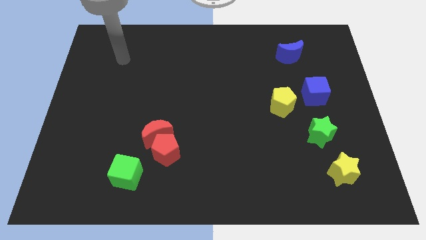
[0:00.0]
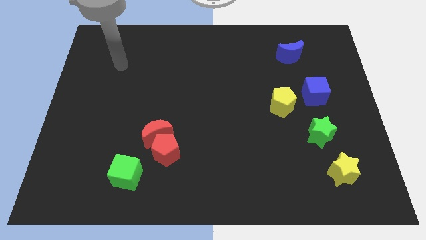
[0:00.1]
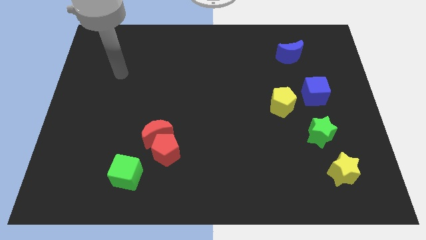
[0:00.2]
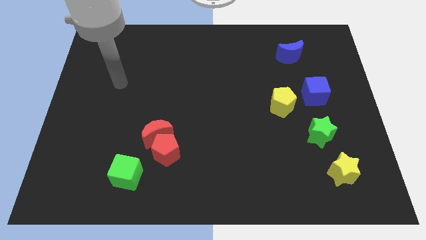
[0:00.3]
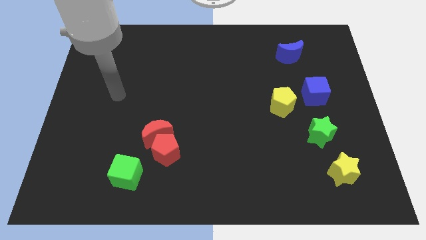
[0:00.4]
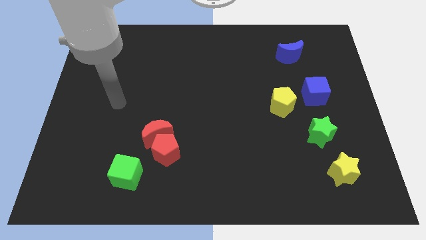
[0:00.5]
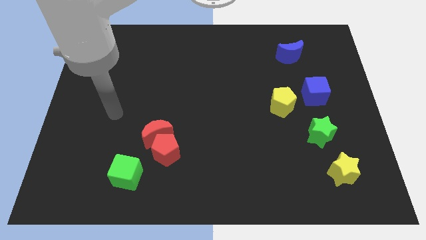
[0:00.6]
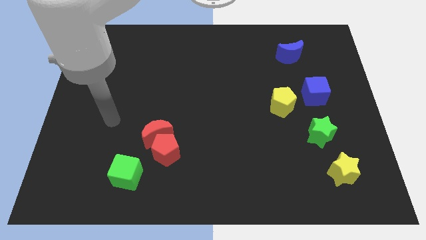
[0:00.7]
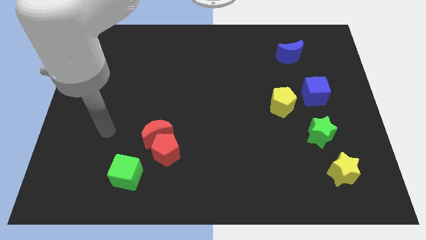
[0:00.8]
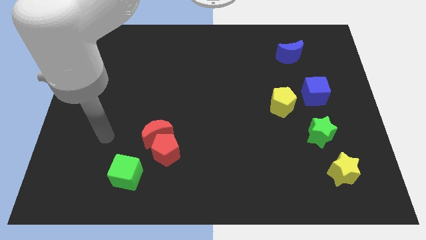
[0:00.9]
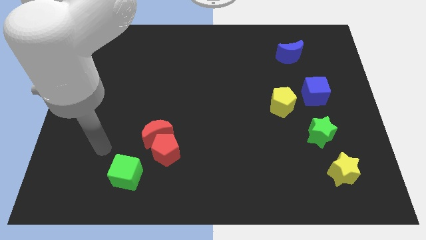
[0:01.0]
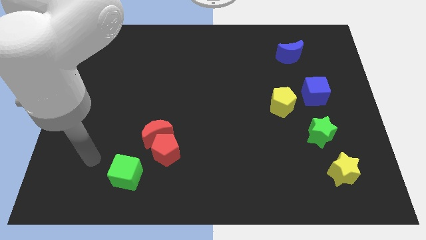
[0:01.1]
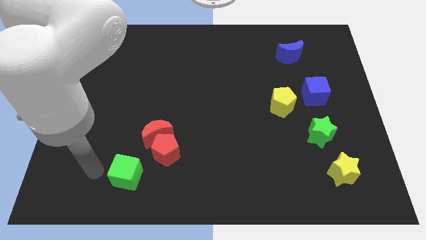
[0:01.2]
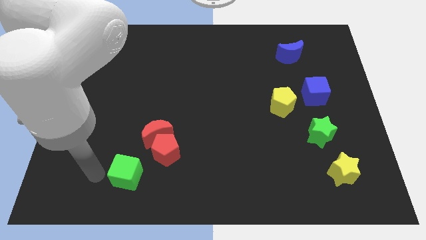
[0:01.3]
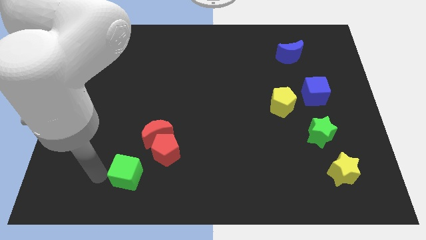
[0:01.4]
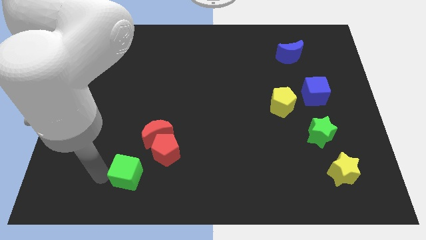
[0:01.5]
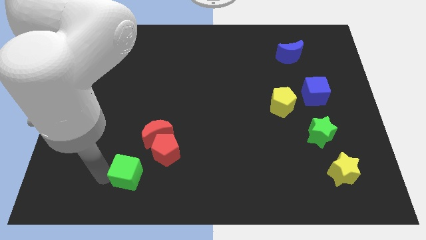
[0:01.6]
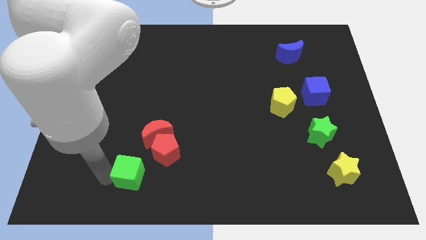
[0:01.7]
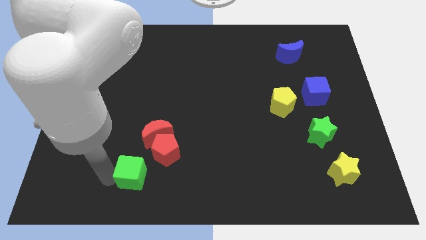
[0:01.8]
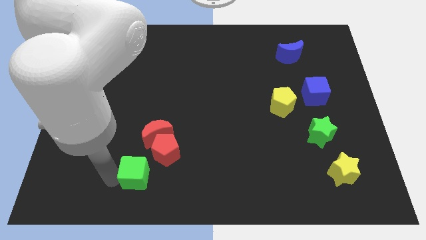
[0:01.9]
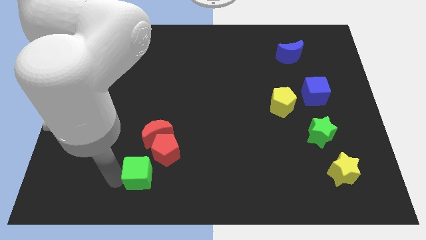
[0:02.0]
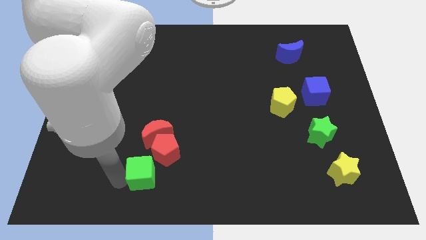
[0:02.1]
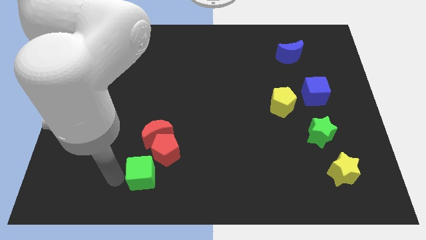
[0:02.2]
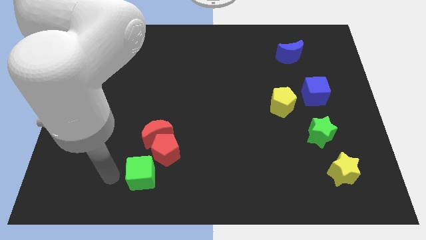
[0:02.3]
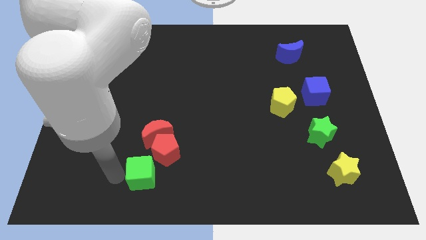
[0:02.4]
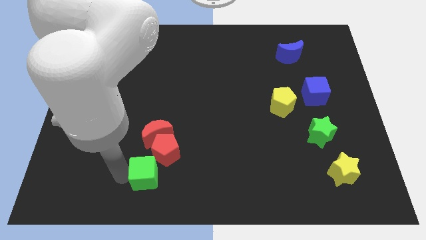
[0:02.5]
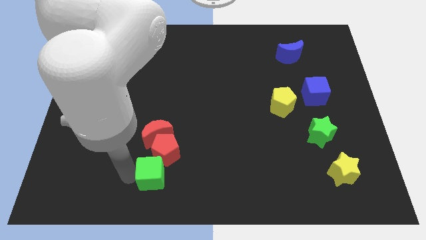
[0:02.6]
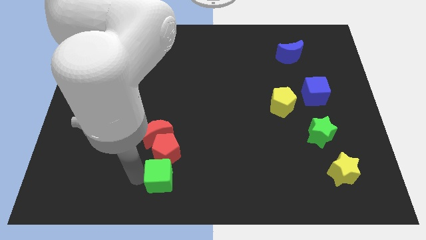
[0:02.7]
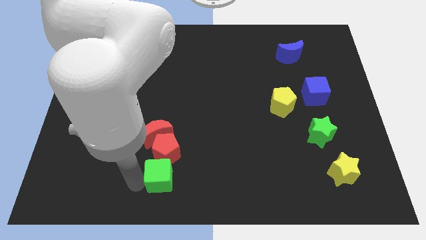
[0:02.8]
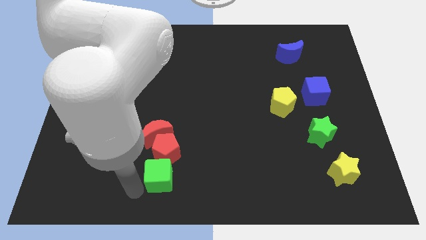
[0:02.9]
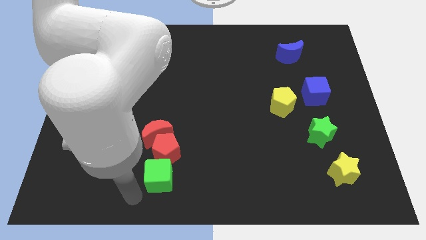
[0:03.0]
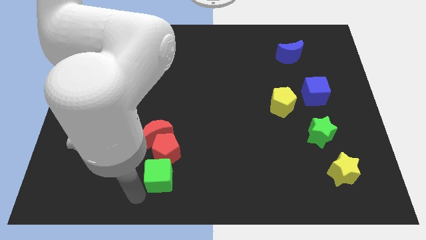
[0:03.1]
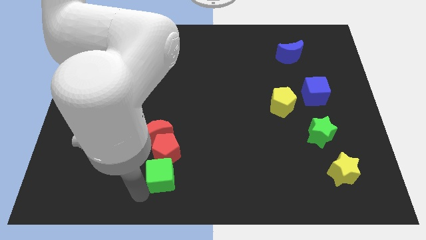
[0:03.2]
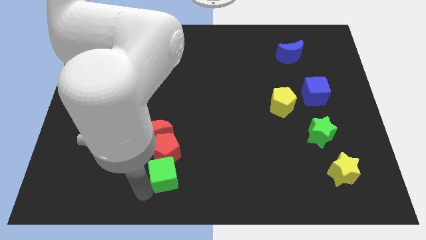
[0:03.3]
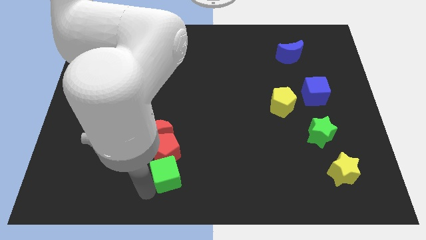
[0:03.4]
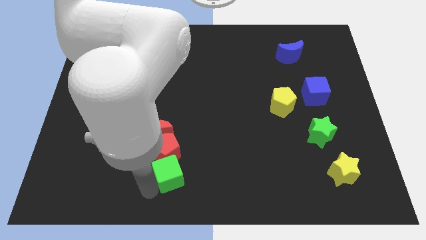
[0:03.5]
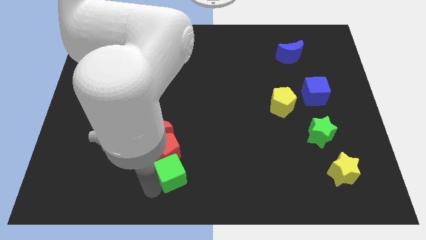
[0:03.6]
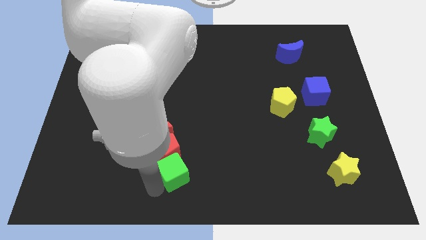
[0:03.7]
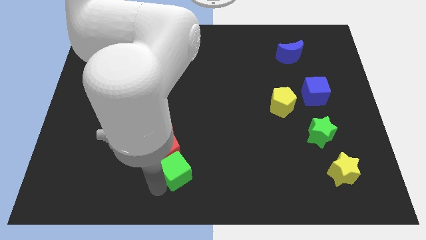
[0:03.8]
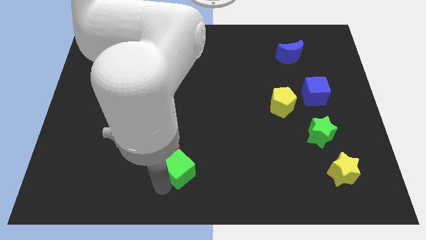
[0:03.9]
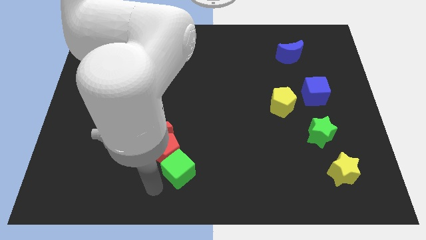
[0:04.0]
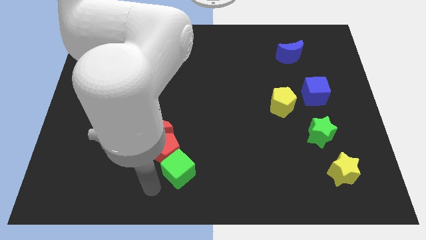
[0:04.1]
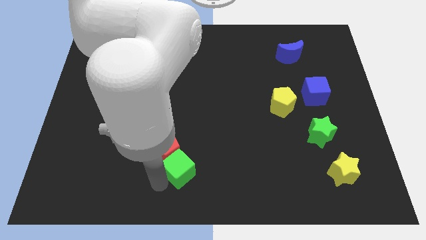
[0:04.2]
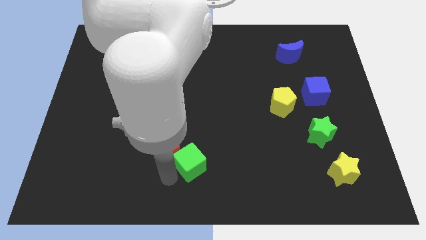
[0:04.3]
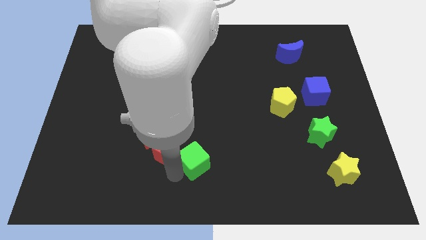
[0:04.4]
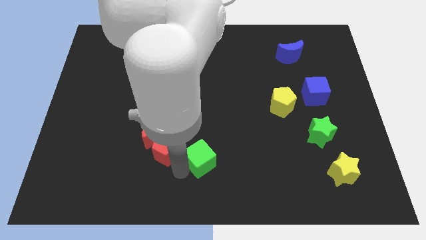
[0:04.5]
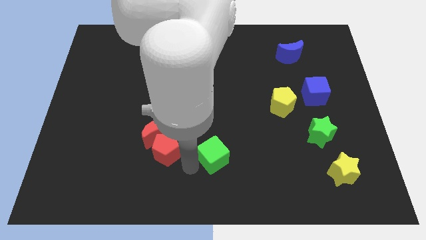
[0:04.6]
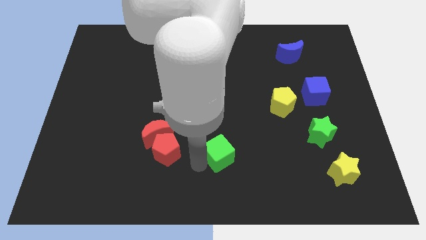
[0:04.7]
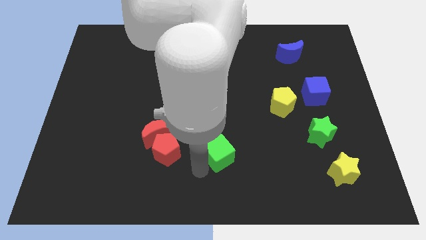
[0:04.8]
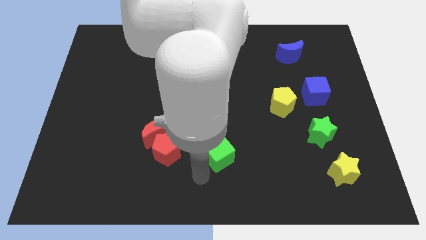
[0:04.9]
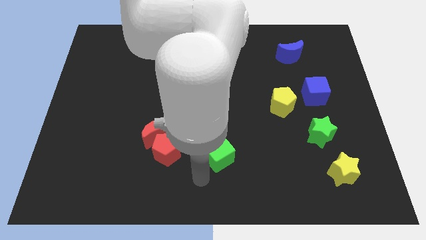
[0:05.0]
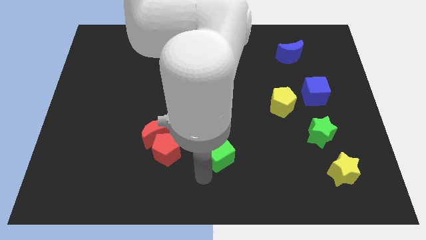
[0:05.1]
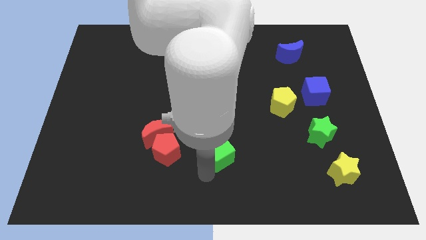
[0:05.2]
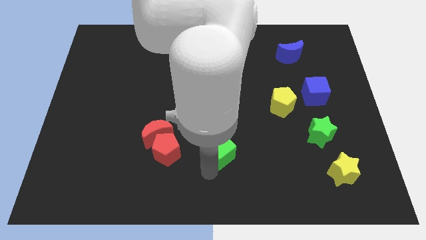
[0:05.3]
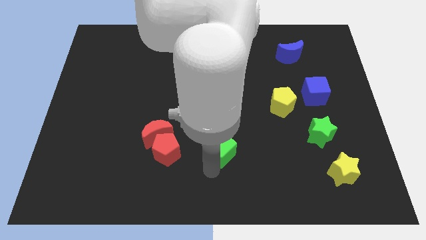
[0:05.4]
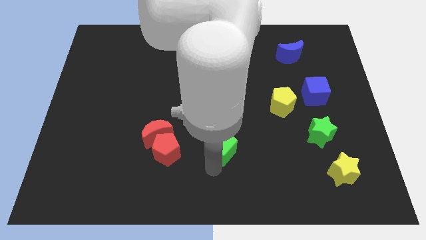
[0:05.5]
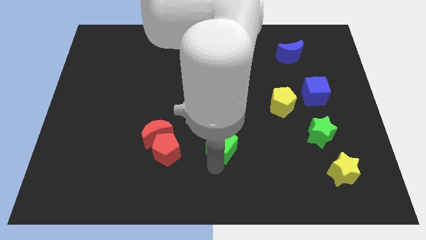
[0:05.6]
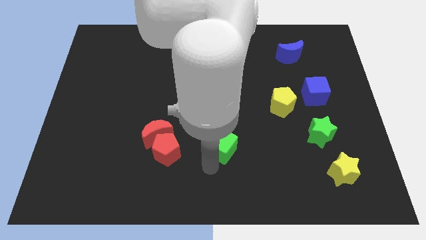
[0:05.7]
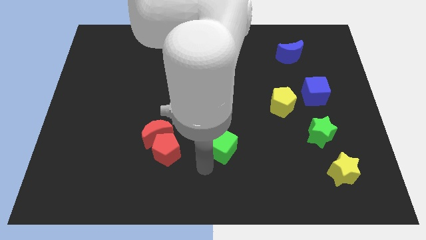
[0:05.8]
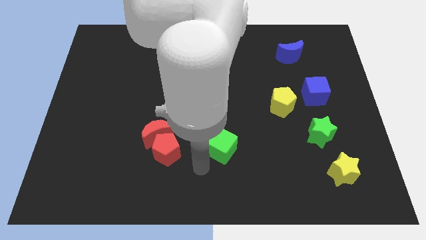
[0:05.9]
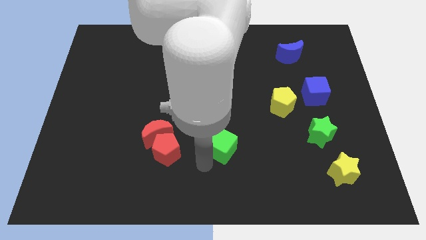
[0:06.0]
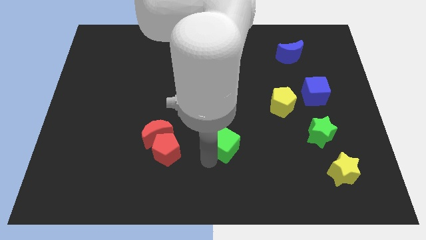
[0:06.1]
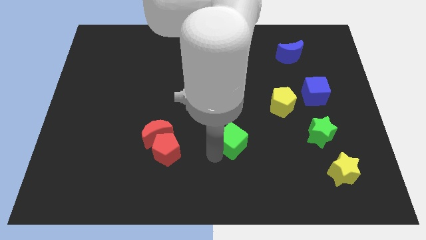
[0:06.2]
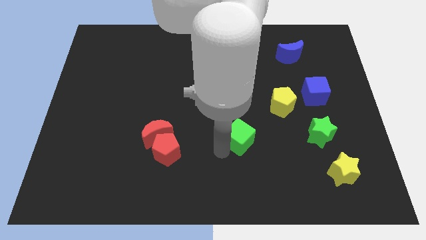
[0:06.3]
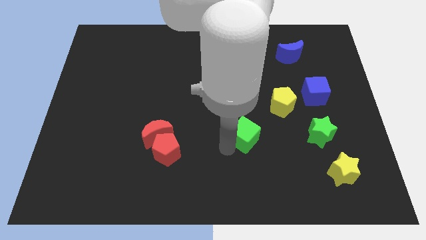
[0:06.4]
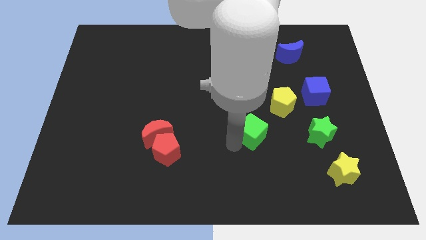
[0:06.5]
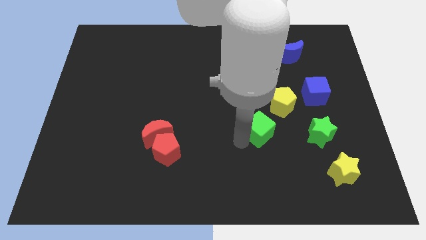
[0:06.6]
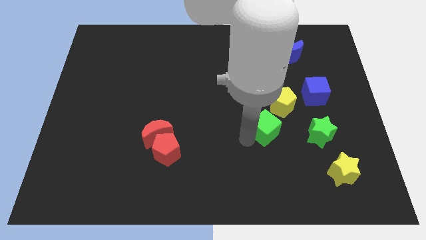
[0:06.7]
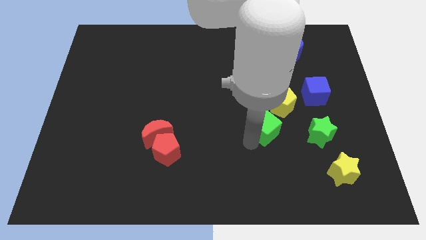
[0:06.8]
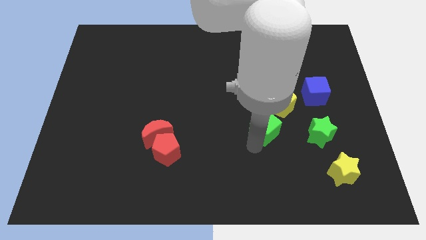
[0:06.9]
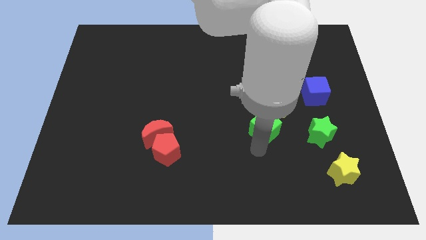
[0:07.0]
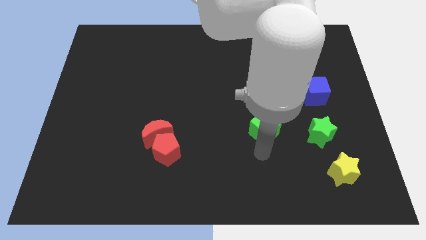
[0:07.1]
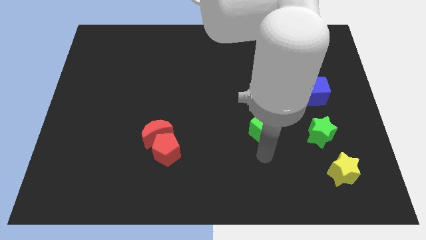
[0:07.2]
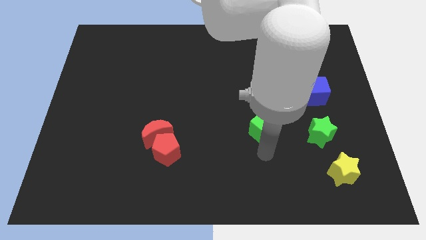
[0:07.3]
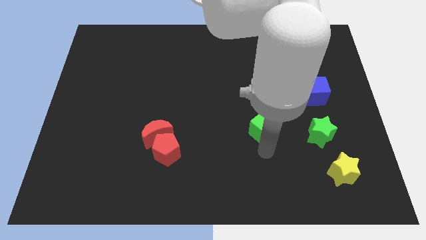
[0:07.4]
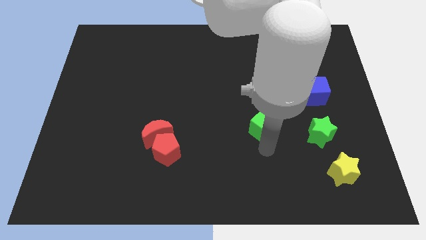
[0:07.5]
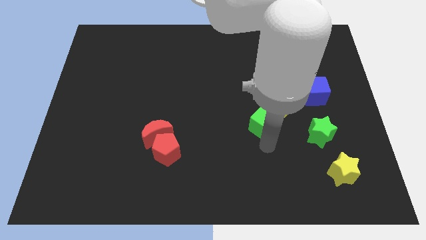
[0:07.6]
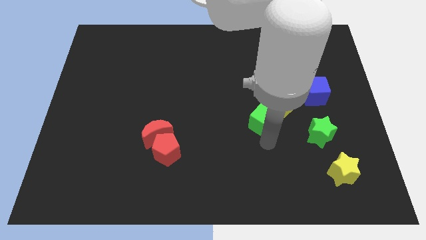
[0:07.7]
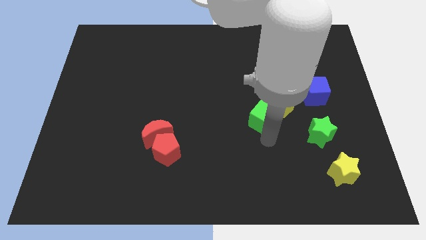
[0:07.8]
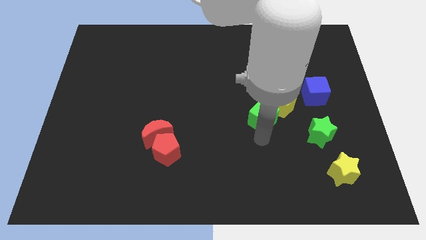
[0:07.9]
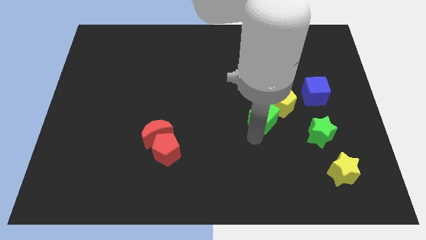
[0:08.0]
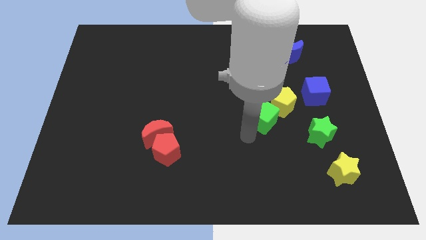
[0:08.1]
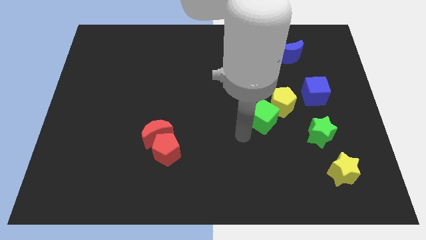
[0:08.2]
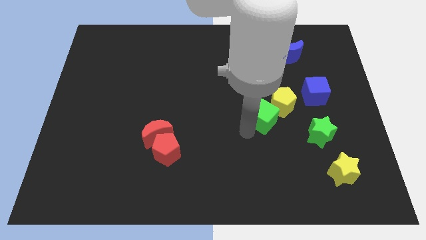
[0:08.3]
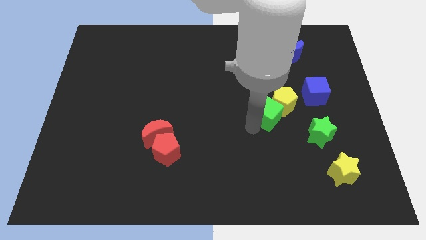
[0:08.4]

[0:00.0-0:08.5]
put the green cube close to the yellow pentagon
